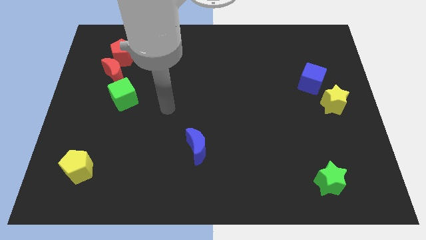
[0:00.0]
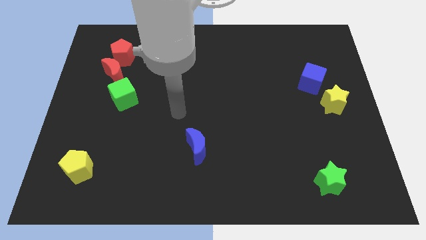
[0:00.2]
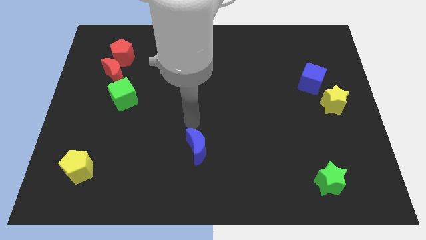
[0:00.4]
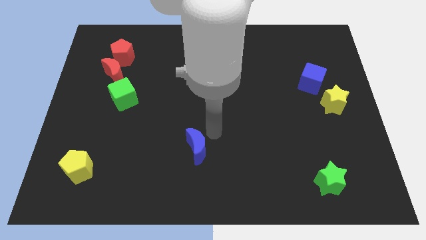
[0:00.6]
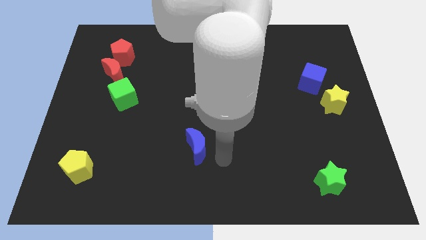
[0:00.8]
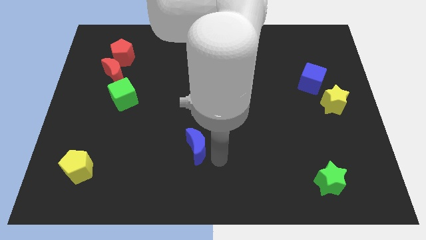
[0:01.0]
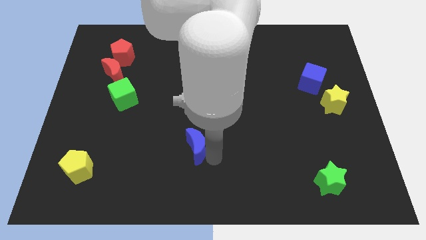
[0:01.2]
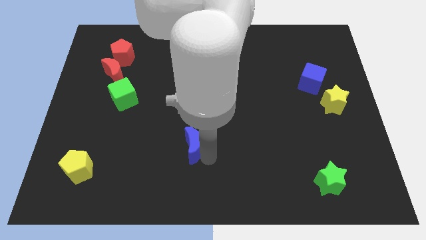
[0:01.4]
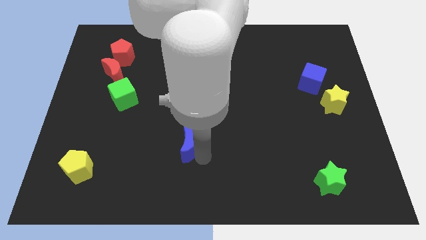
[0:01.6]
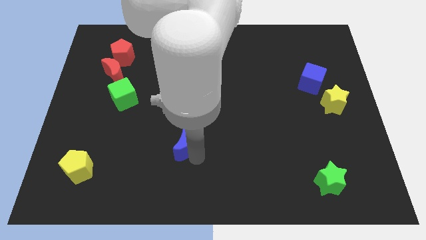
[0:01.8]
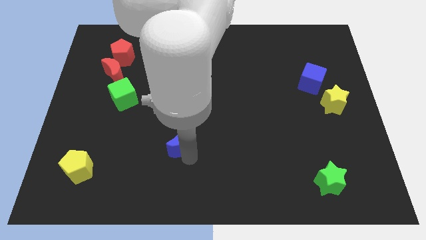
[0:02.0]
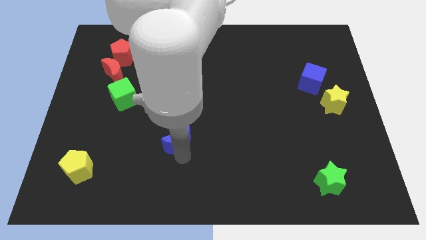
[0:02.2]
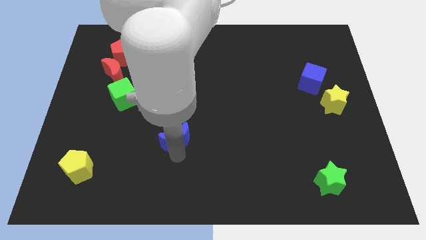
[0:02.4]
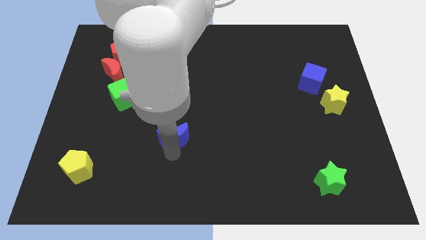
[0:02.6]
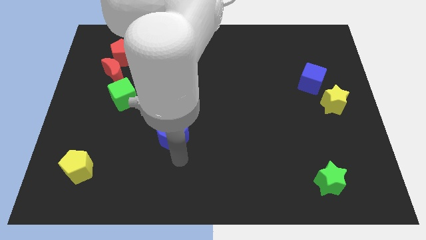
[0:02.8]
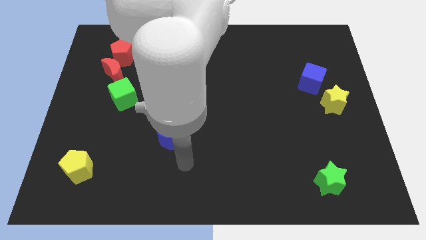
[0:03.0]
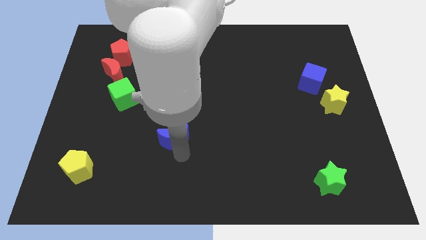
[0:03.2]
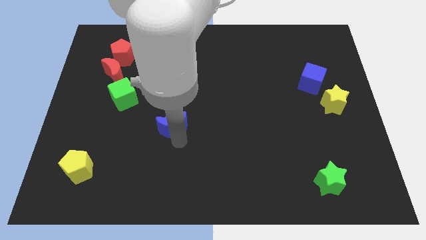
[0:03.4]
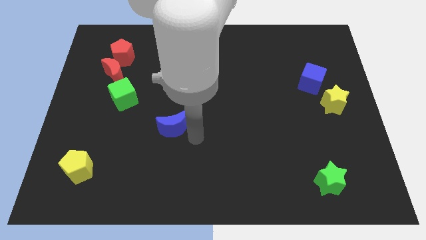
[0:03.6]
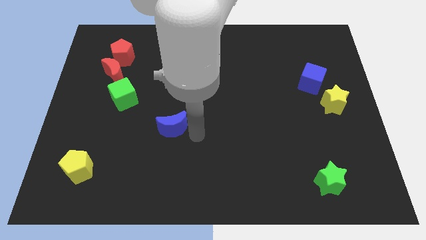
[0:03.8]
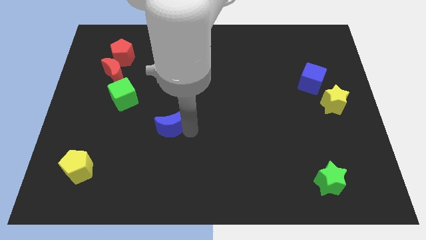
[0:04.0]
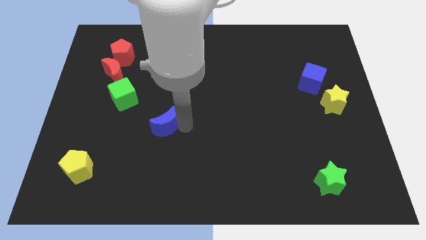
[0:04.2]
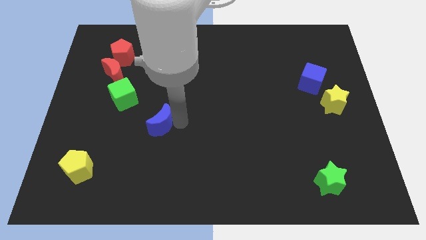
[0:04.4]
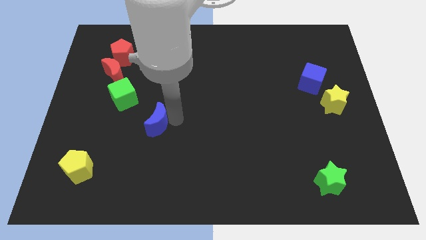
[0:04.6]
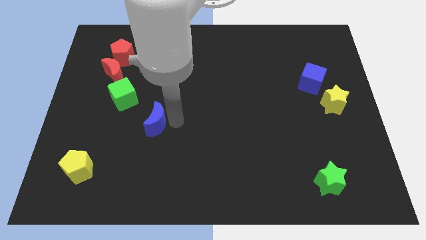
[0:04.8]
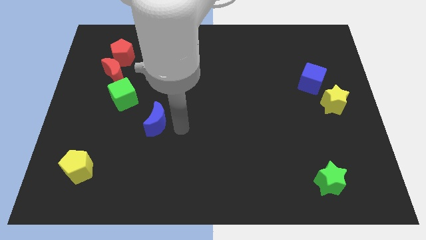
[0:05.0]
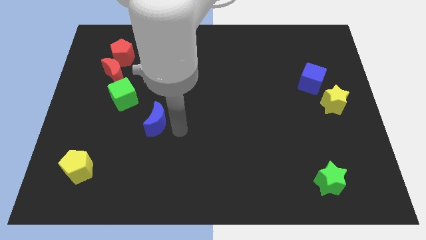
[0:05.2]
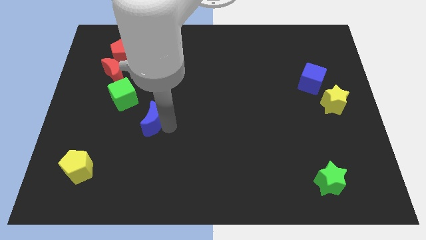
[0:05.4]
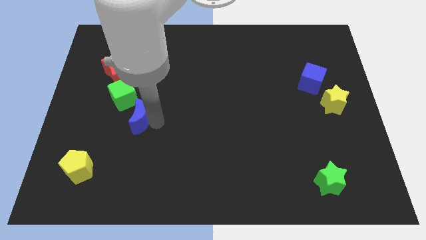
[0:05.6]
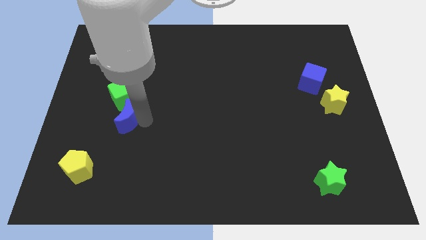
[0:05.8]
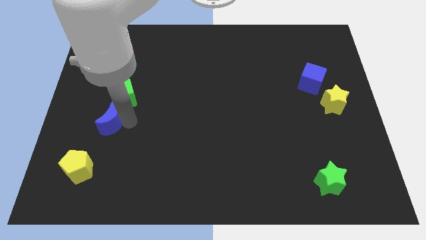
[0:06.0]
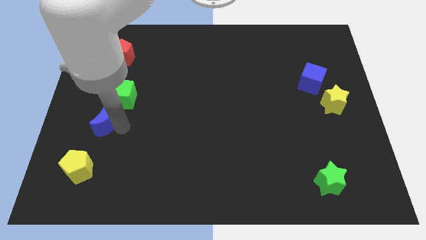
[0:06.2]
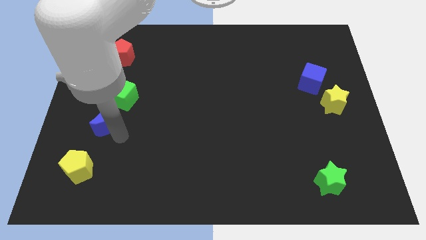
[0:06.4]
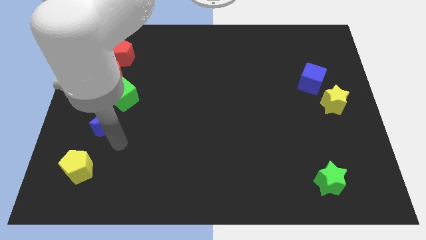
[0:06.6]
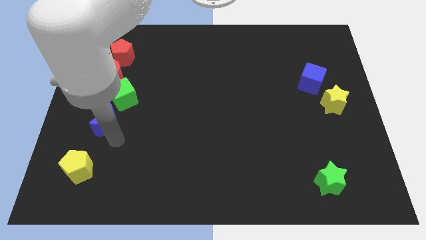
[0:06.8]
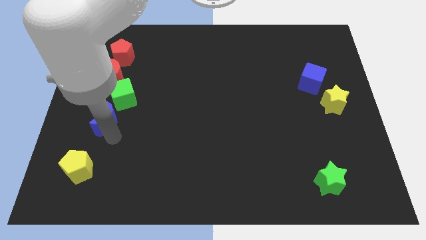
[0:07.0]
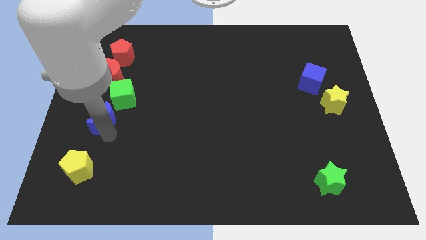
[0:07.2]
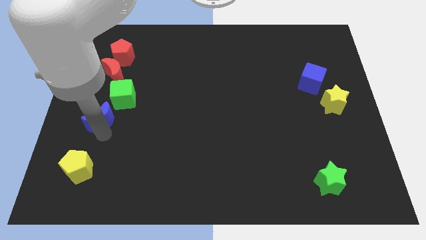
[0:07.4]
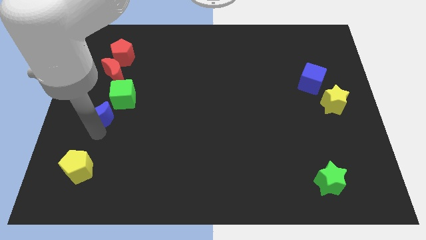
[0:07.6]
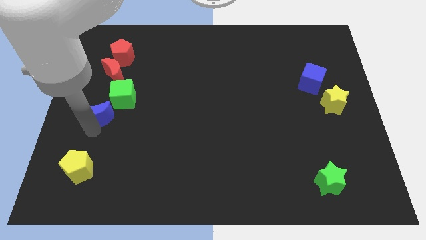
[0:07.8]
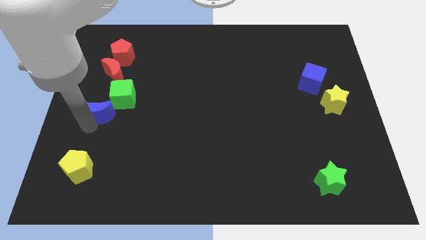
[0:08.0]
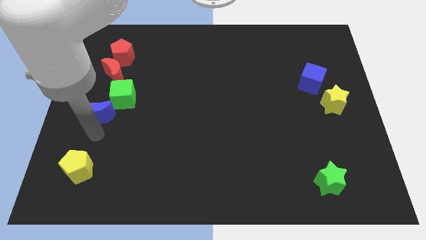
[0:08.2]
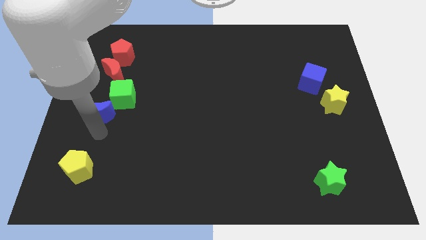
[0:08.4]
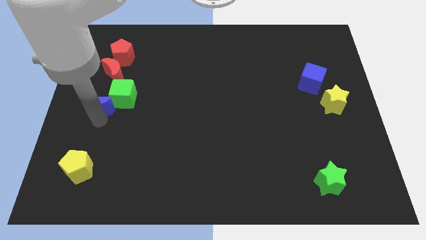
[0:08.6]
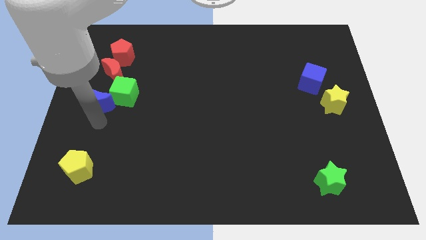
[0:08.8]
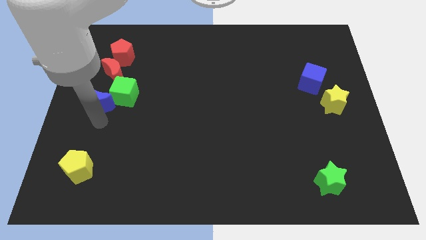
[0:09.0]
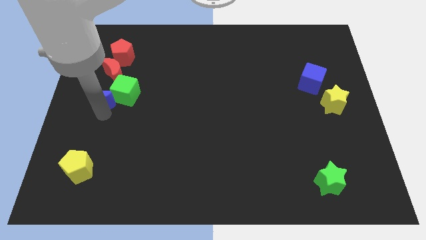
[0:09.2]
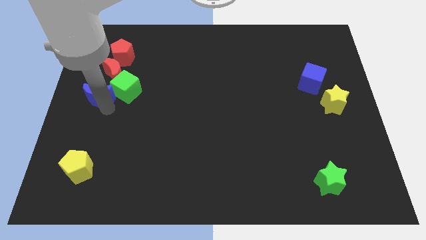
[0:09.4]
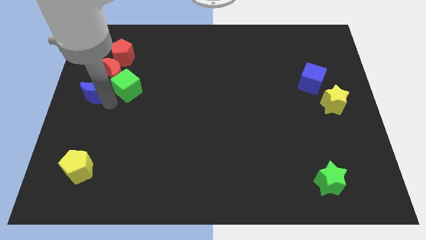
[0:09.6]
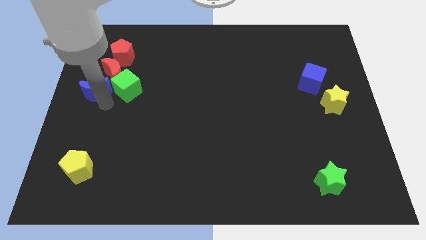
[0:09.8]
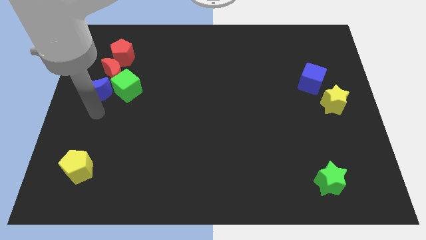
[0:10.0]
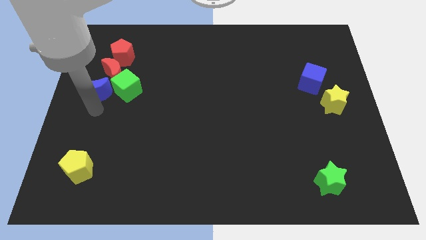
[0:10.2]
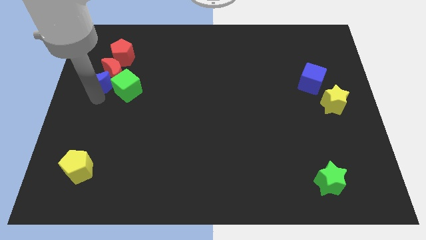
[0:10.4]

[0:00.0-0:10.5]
put the blue moon to the bottom left side of the red pentagon

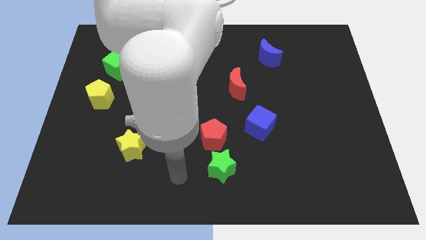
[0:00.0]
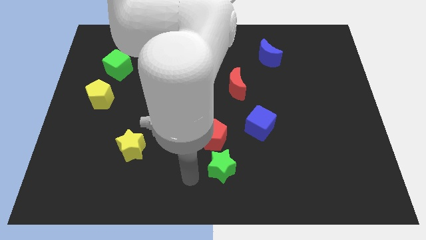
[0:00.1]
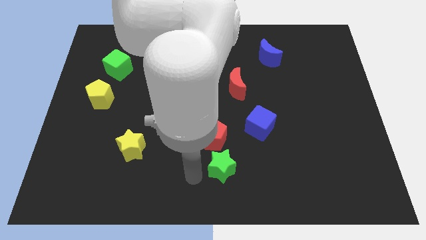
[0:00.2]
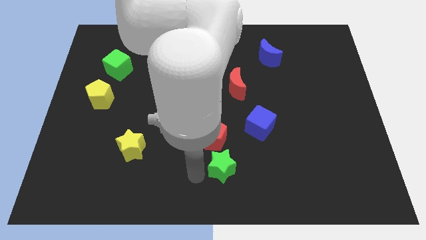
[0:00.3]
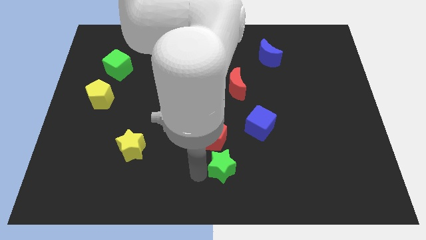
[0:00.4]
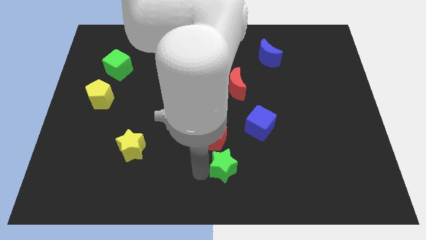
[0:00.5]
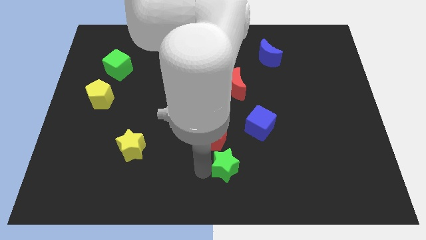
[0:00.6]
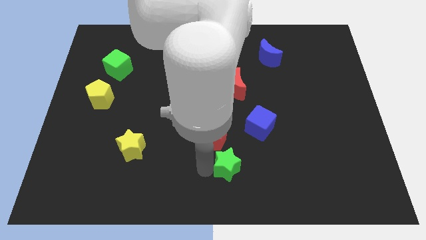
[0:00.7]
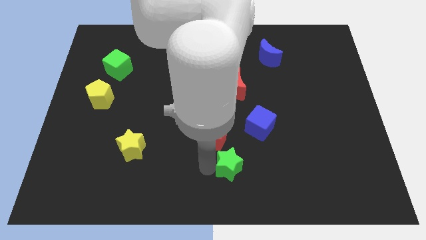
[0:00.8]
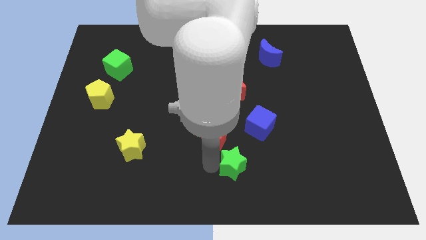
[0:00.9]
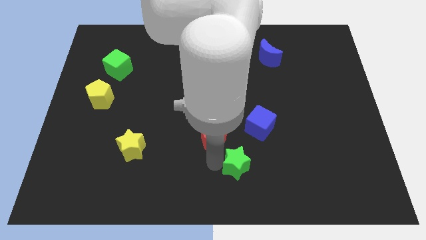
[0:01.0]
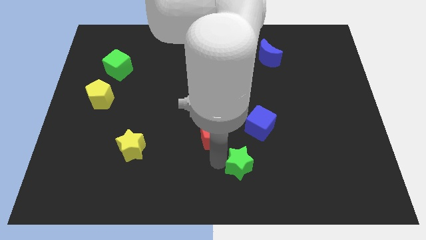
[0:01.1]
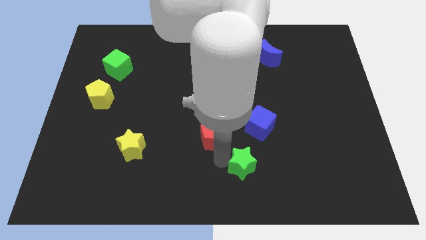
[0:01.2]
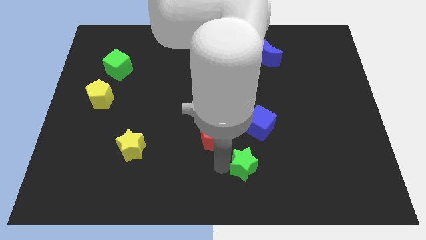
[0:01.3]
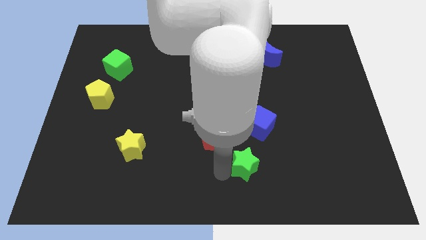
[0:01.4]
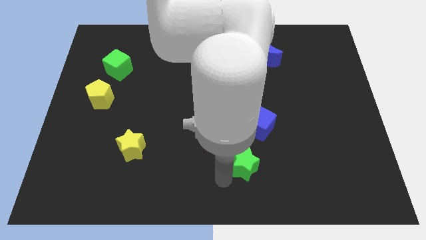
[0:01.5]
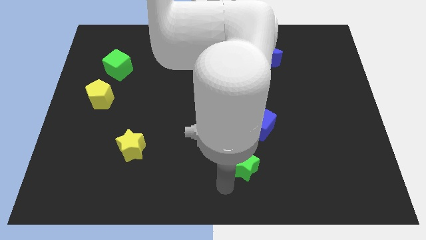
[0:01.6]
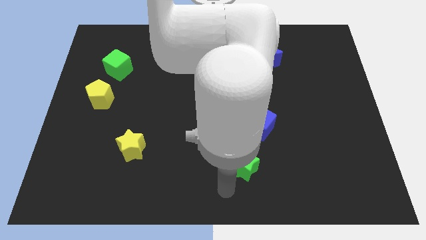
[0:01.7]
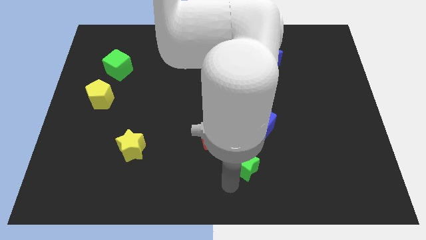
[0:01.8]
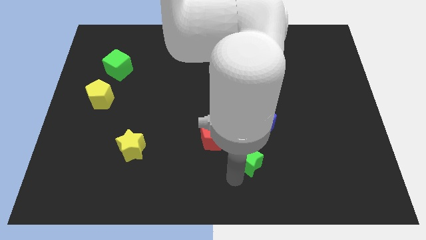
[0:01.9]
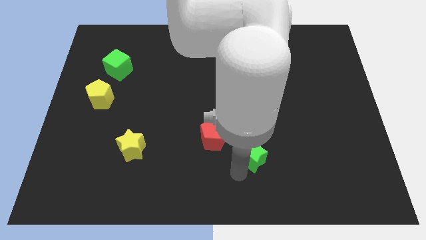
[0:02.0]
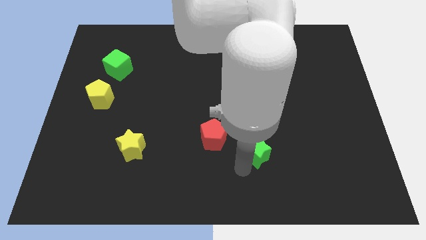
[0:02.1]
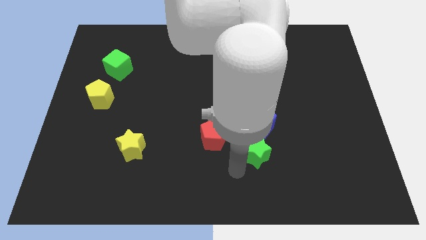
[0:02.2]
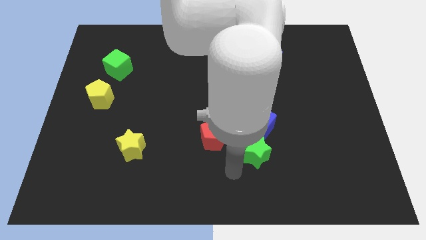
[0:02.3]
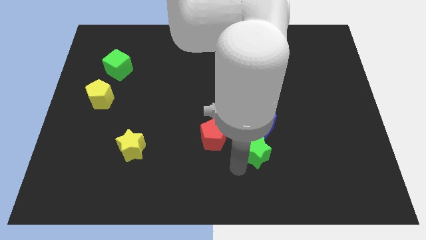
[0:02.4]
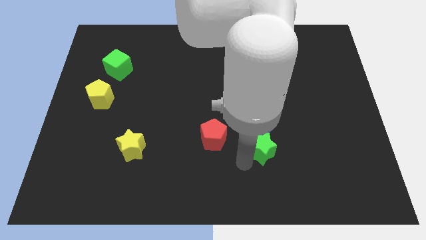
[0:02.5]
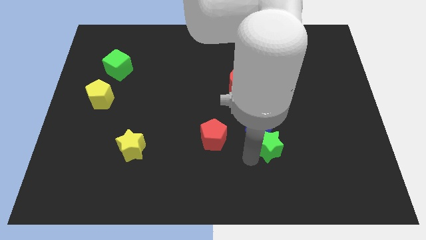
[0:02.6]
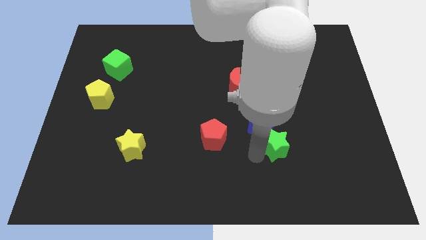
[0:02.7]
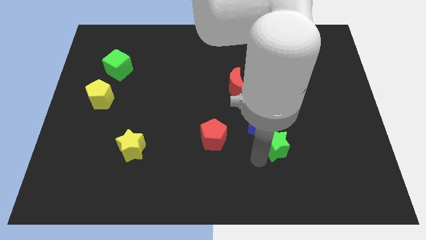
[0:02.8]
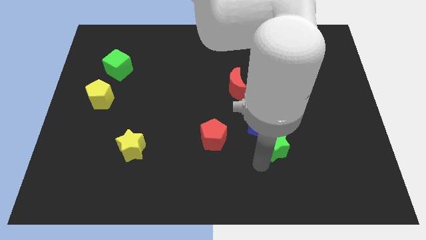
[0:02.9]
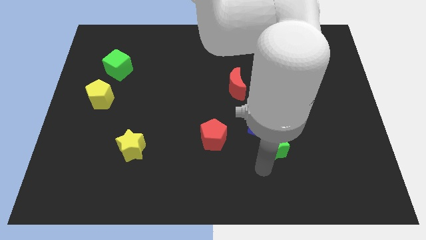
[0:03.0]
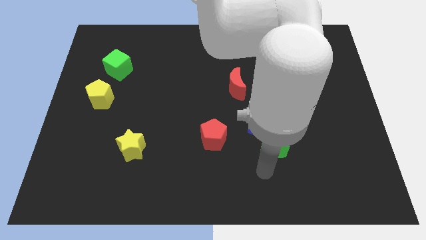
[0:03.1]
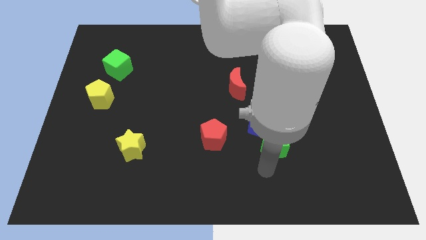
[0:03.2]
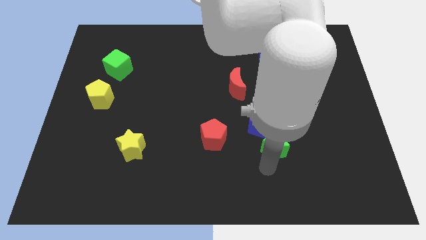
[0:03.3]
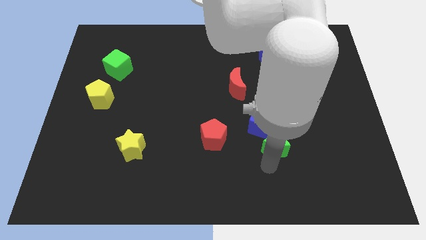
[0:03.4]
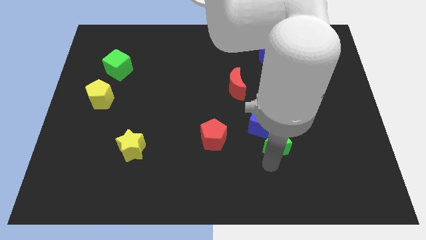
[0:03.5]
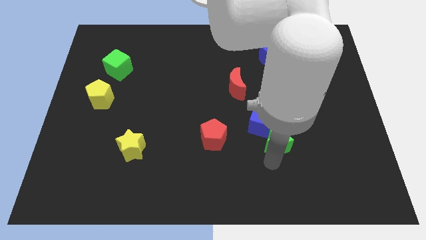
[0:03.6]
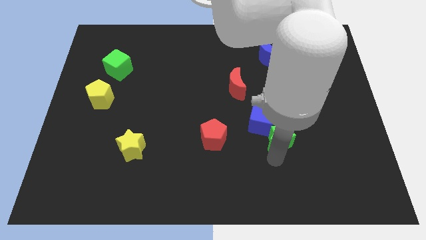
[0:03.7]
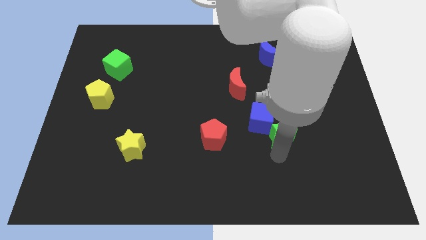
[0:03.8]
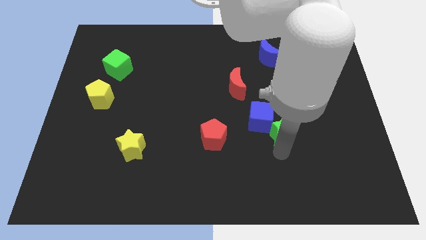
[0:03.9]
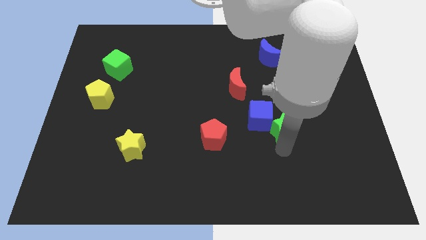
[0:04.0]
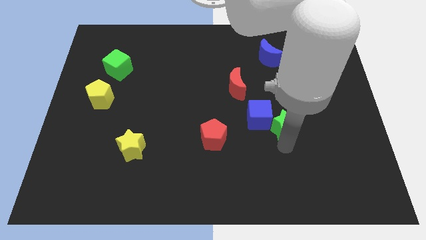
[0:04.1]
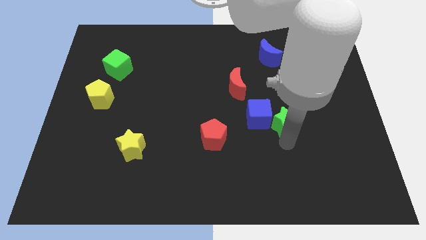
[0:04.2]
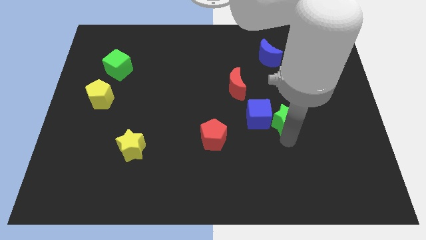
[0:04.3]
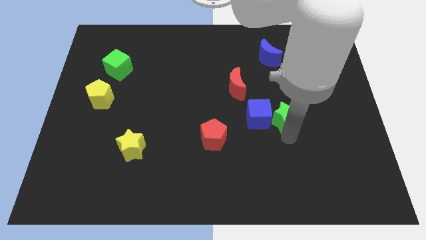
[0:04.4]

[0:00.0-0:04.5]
move the green star to the top right side of the blue cube
